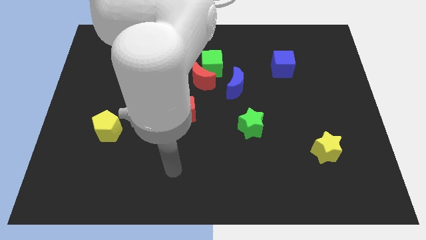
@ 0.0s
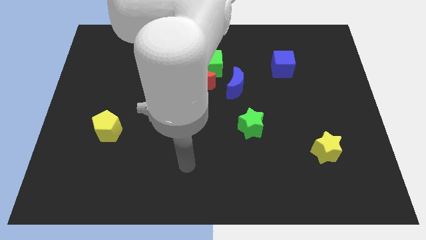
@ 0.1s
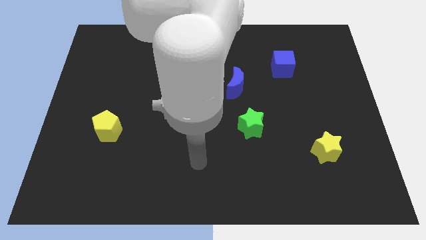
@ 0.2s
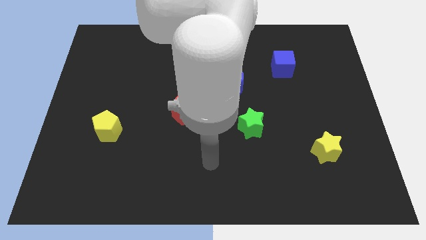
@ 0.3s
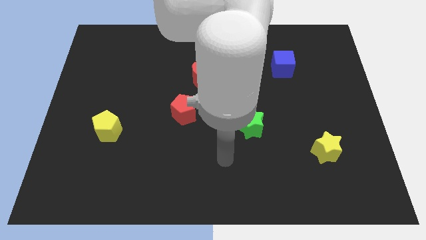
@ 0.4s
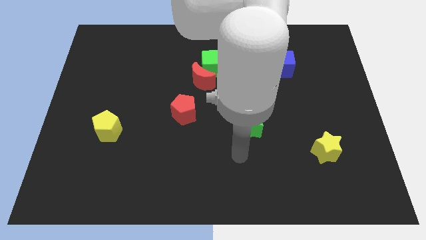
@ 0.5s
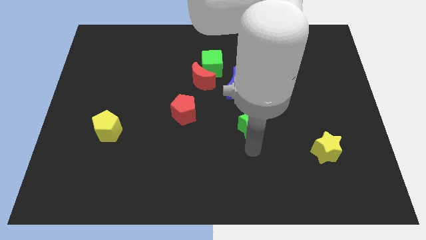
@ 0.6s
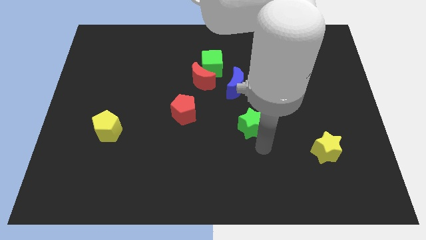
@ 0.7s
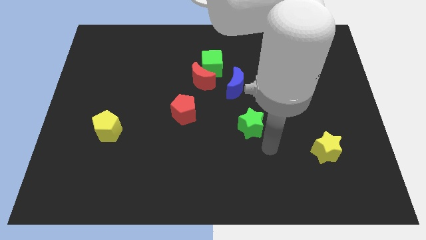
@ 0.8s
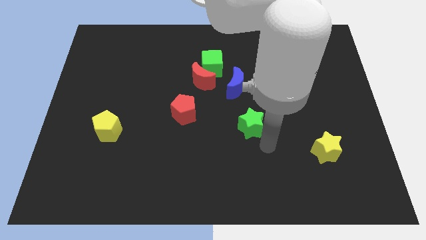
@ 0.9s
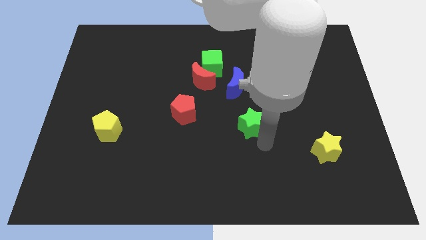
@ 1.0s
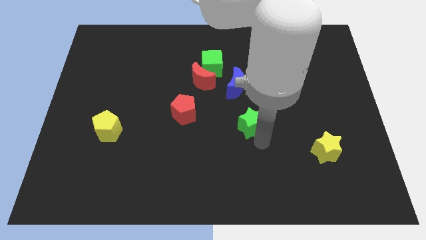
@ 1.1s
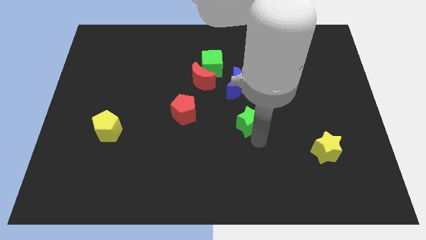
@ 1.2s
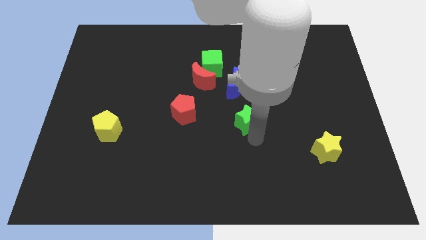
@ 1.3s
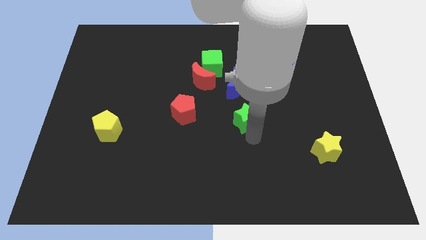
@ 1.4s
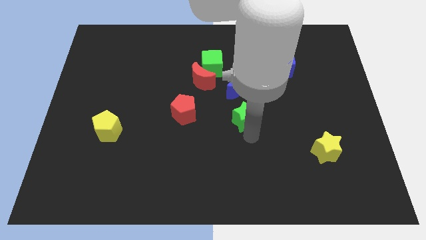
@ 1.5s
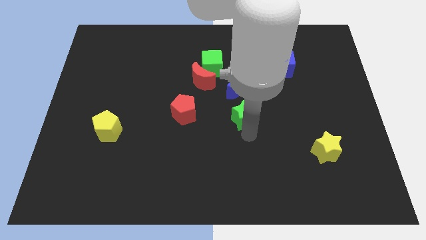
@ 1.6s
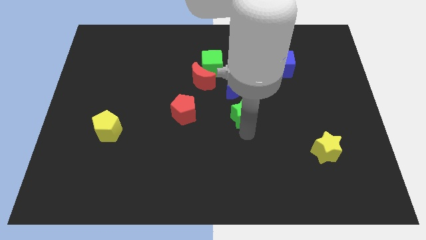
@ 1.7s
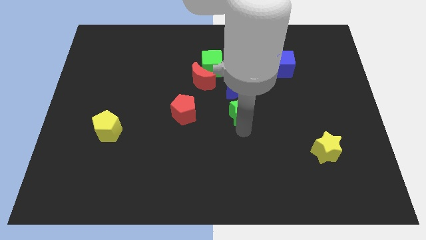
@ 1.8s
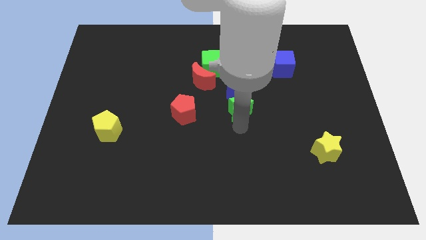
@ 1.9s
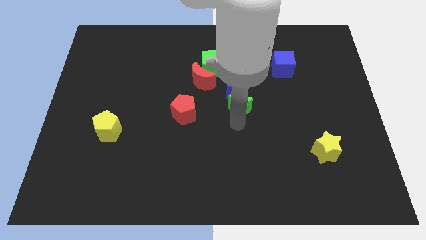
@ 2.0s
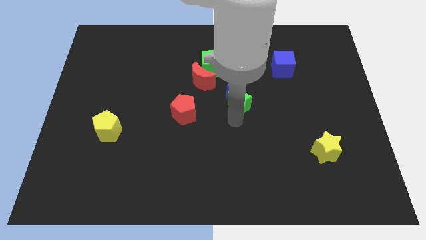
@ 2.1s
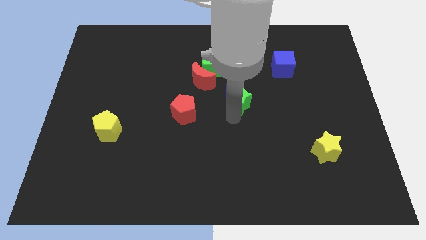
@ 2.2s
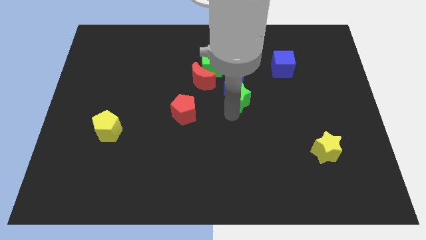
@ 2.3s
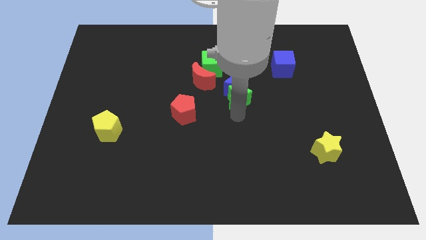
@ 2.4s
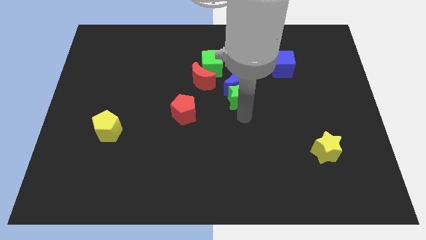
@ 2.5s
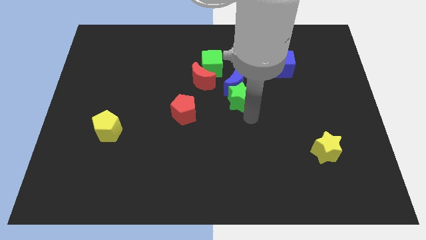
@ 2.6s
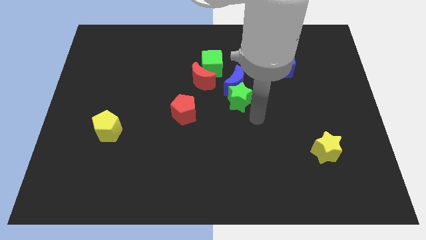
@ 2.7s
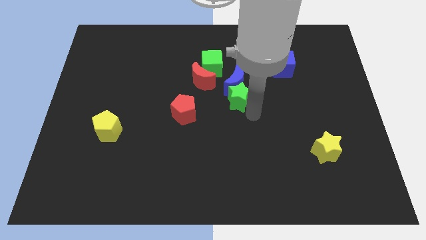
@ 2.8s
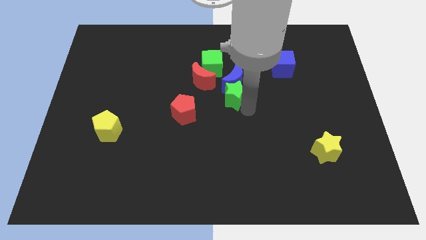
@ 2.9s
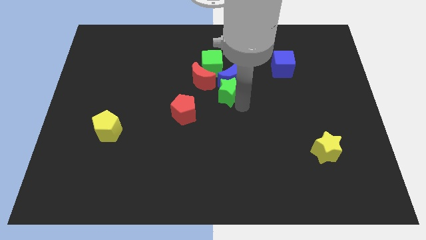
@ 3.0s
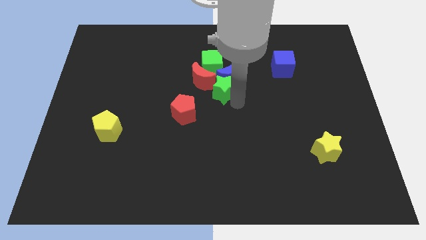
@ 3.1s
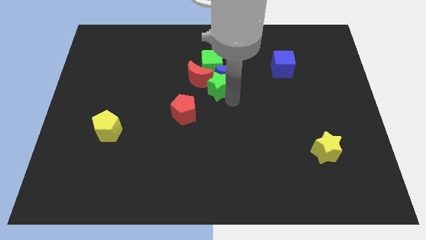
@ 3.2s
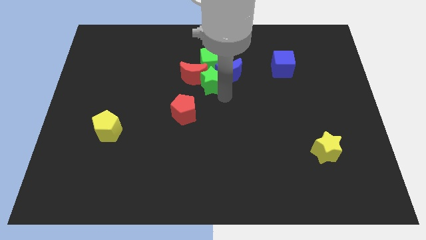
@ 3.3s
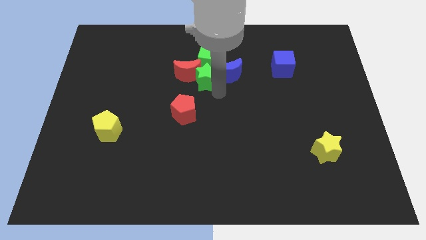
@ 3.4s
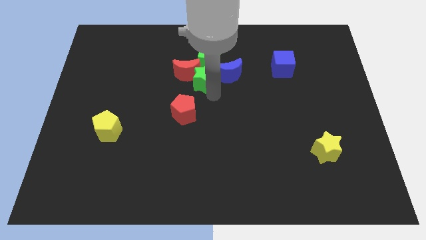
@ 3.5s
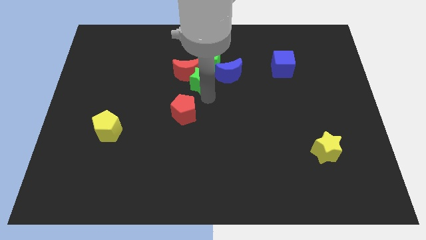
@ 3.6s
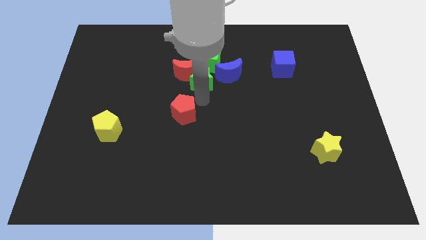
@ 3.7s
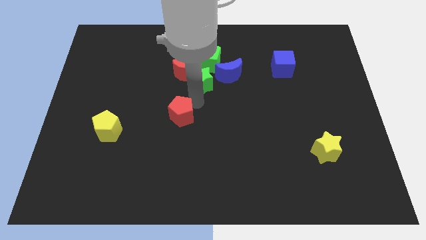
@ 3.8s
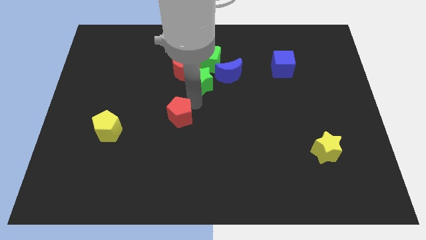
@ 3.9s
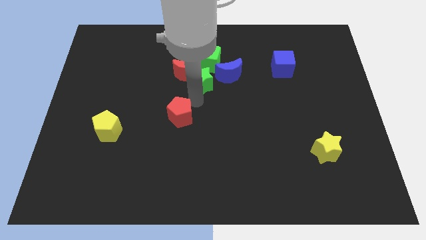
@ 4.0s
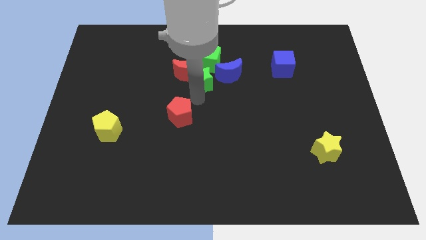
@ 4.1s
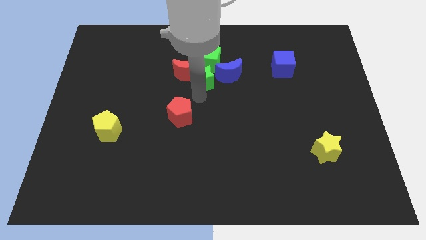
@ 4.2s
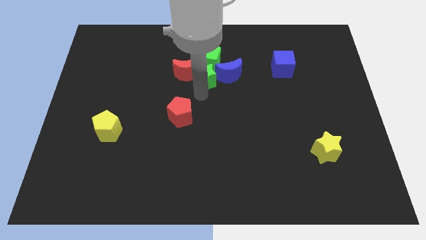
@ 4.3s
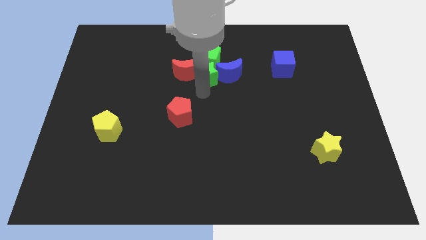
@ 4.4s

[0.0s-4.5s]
move the green star to the green cube

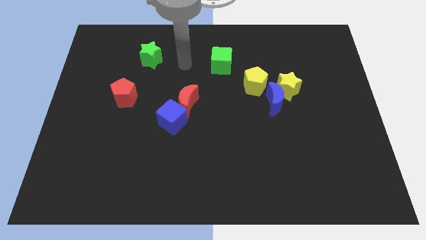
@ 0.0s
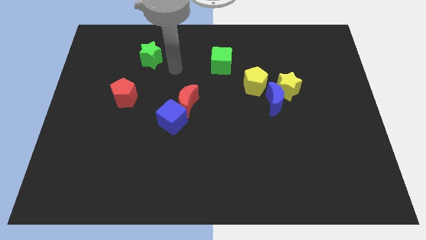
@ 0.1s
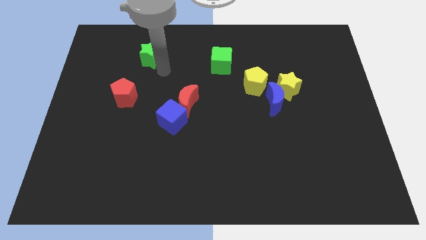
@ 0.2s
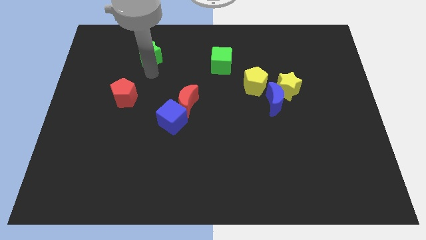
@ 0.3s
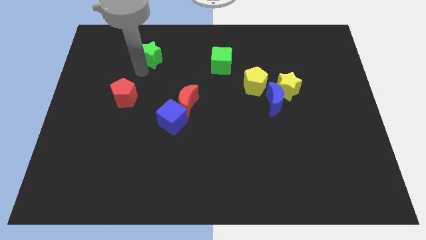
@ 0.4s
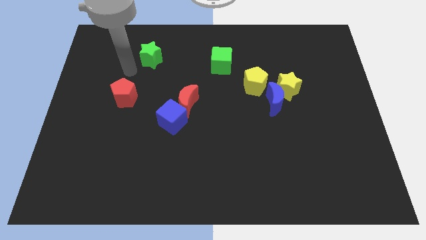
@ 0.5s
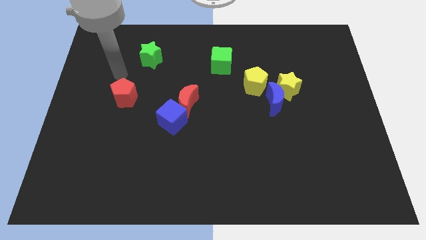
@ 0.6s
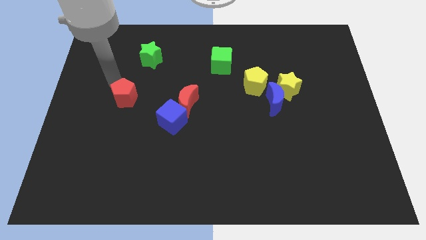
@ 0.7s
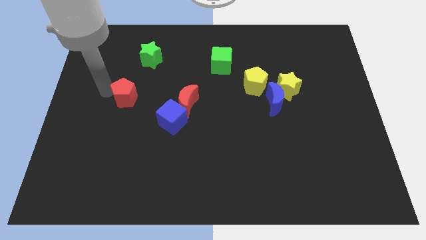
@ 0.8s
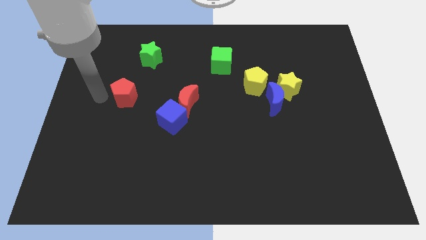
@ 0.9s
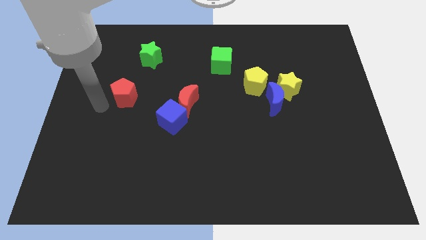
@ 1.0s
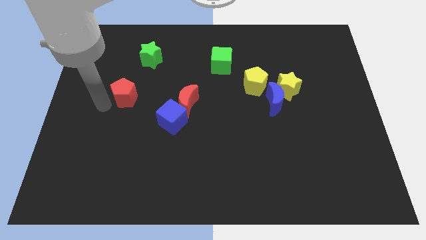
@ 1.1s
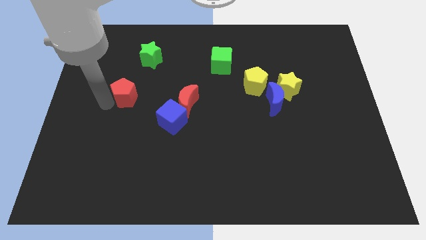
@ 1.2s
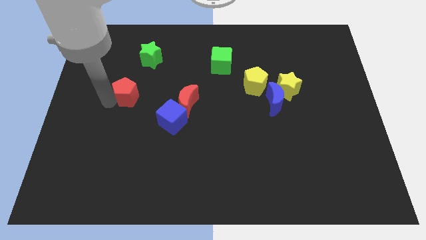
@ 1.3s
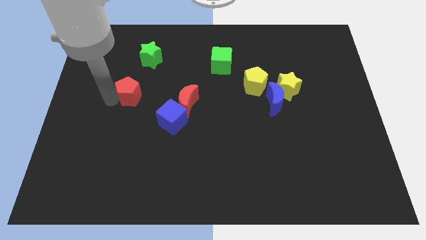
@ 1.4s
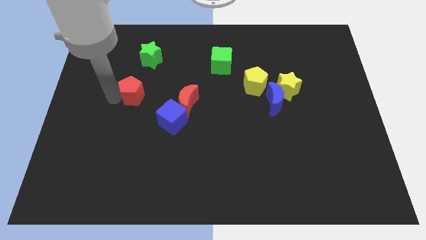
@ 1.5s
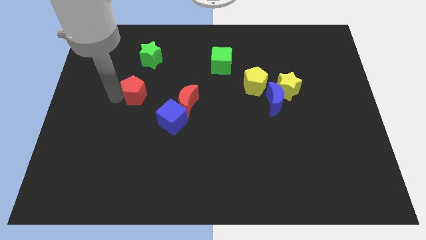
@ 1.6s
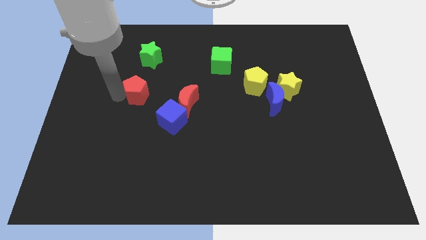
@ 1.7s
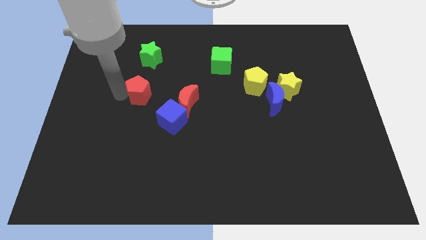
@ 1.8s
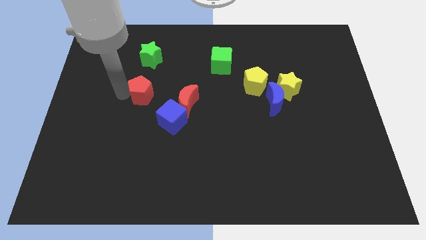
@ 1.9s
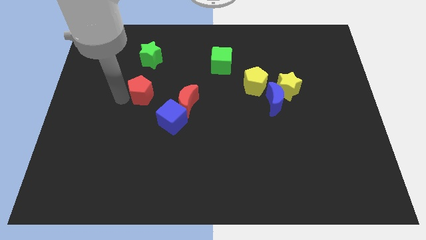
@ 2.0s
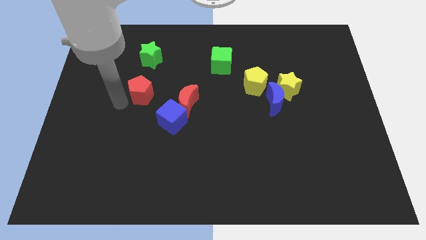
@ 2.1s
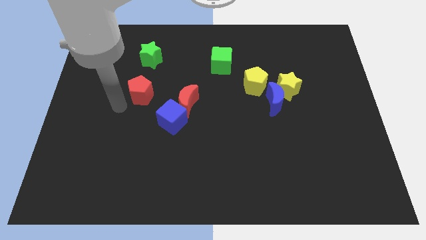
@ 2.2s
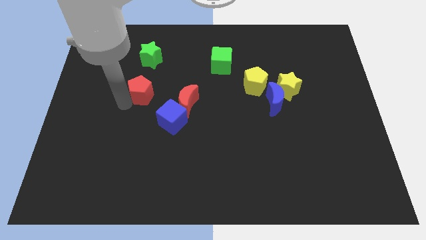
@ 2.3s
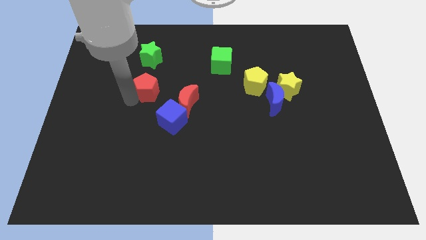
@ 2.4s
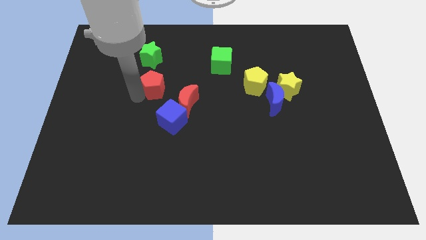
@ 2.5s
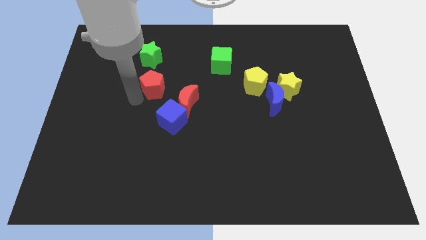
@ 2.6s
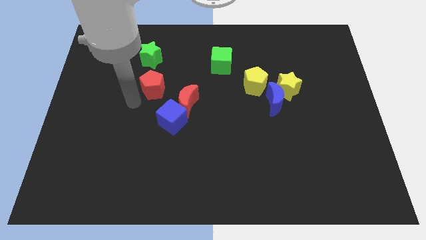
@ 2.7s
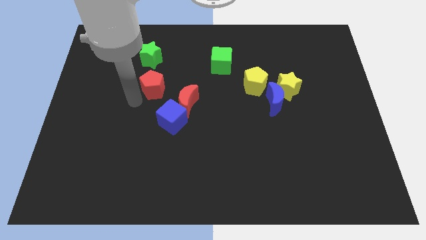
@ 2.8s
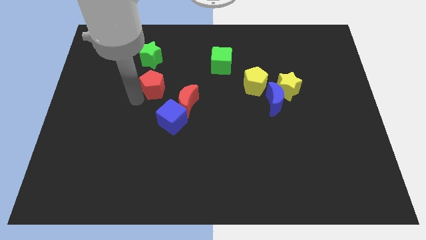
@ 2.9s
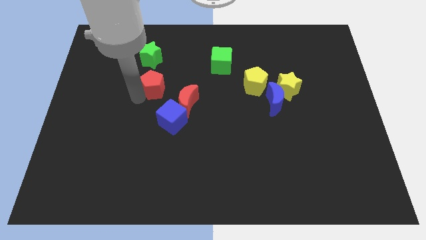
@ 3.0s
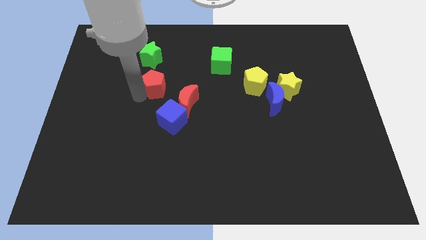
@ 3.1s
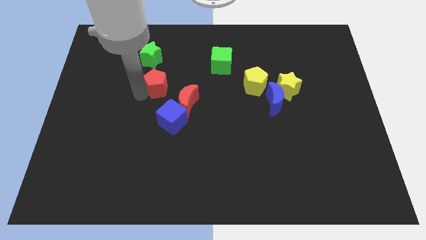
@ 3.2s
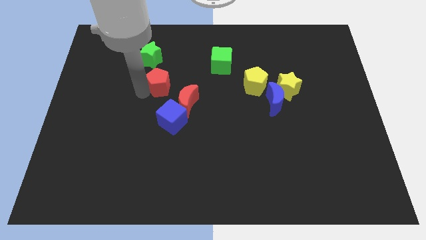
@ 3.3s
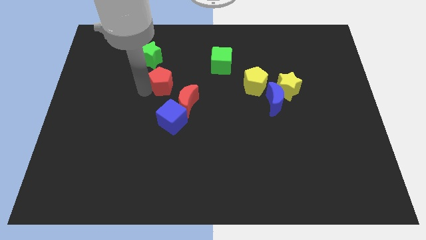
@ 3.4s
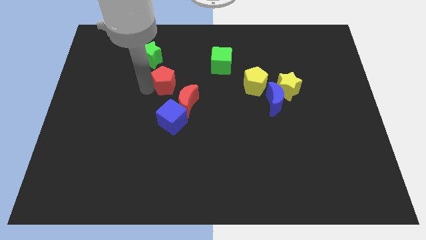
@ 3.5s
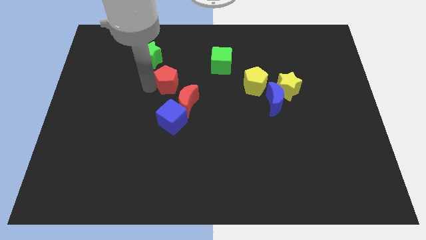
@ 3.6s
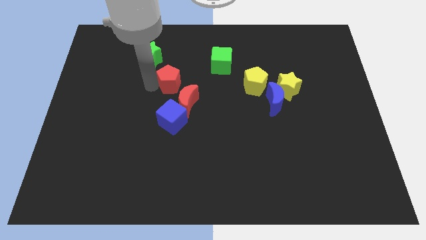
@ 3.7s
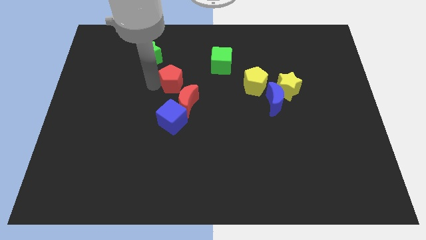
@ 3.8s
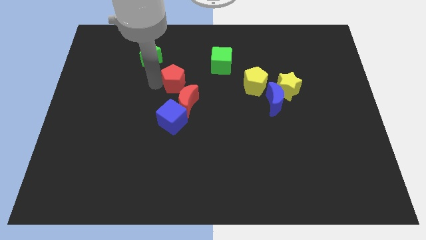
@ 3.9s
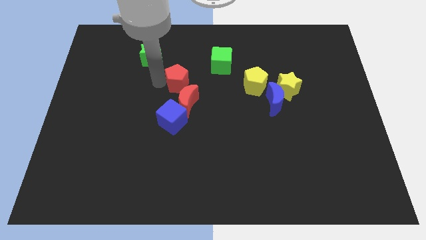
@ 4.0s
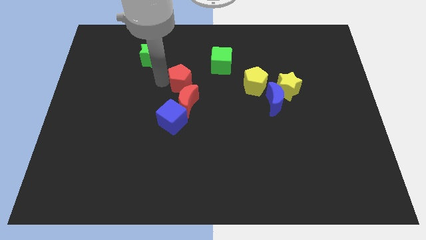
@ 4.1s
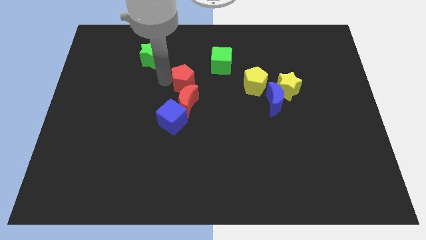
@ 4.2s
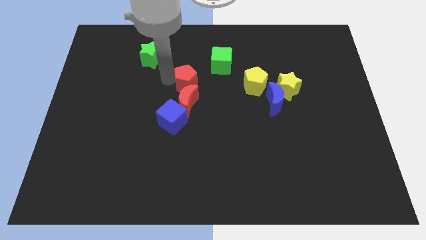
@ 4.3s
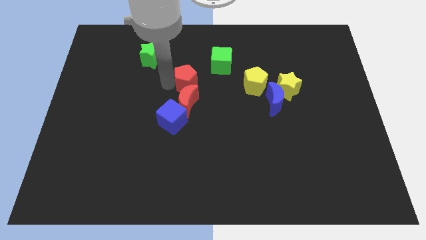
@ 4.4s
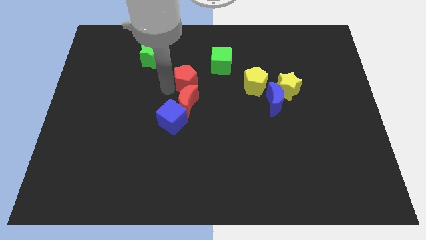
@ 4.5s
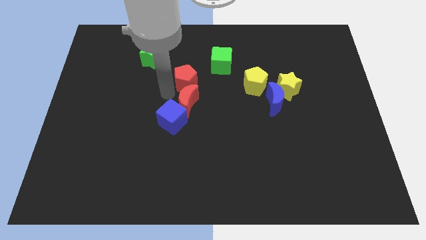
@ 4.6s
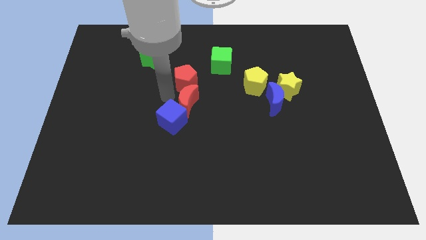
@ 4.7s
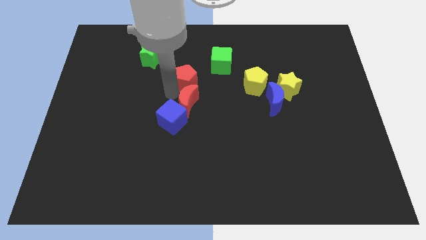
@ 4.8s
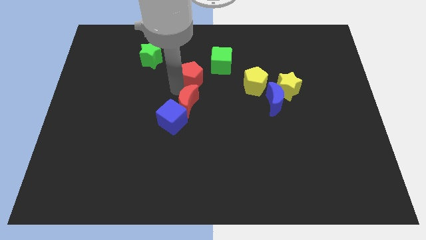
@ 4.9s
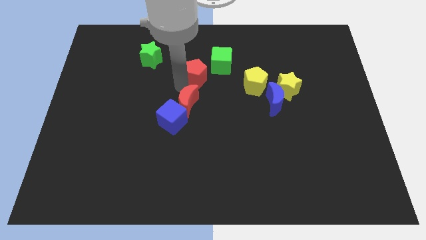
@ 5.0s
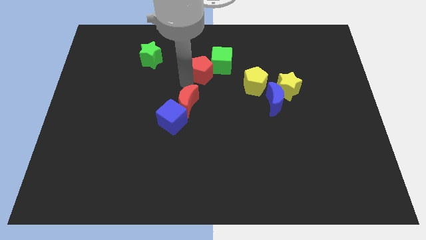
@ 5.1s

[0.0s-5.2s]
move the red pentagon next to the green cube
